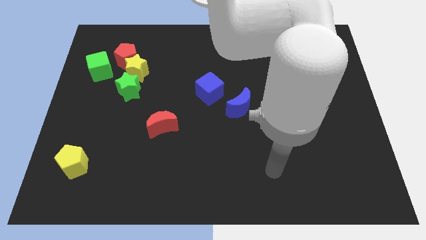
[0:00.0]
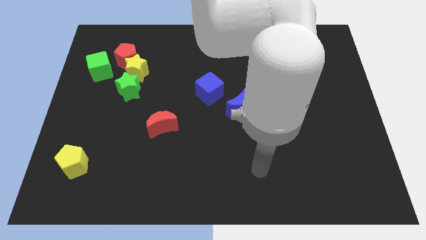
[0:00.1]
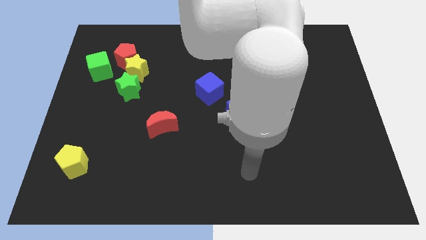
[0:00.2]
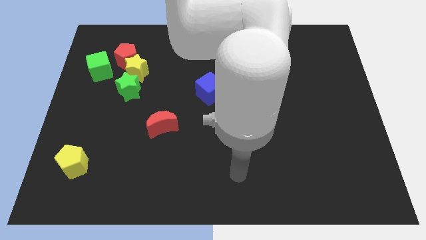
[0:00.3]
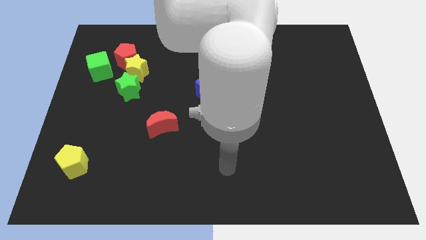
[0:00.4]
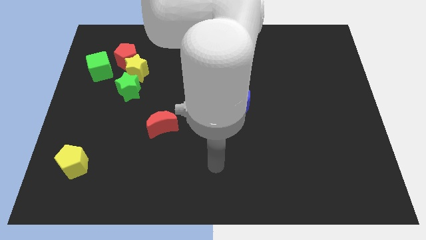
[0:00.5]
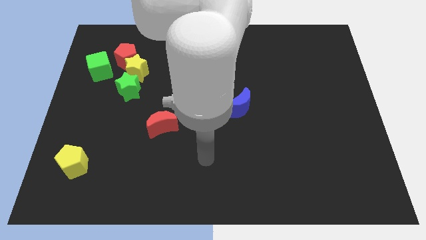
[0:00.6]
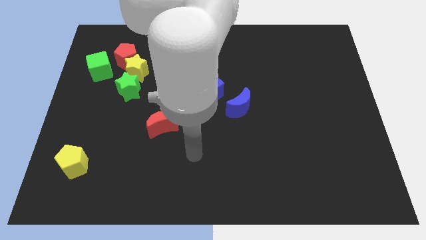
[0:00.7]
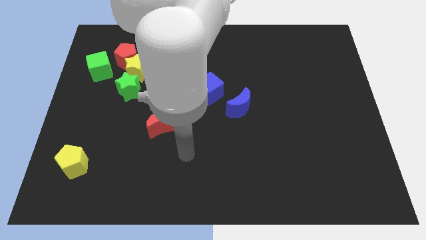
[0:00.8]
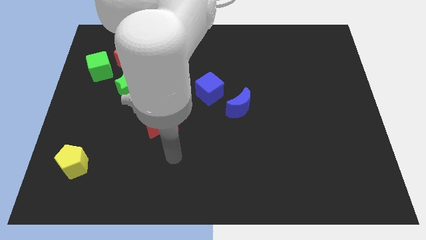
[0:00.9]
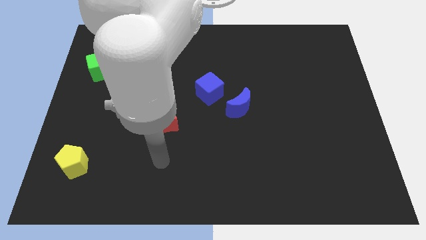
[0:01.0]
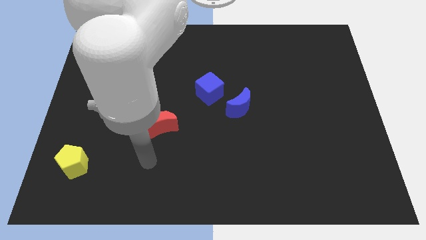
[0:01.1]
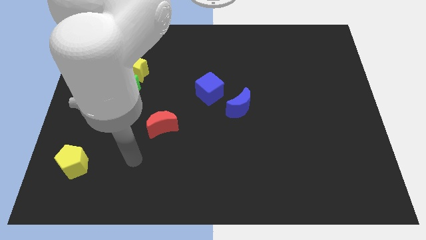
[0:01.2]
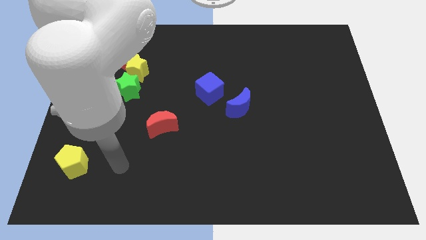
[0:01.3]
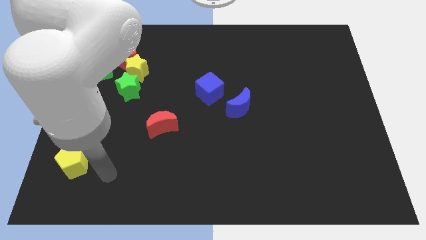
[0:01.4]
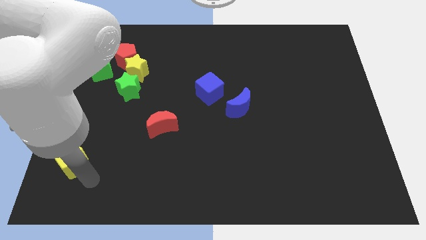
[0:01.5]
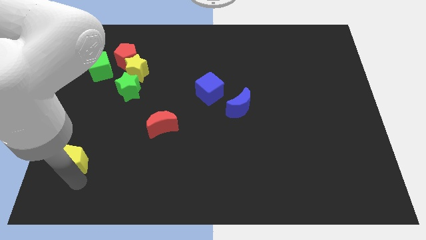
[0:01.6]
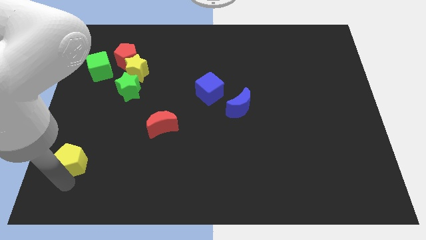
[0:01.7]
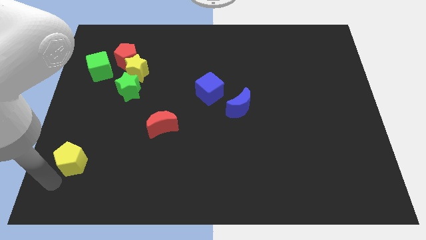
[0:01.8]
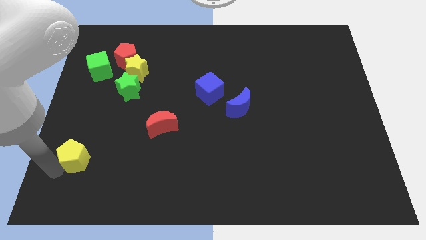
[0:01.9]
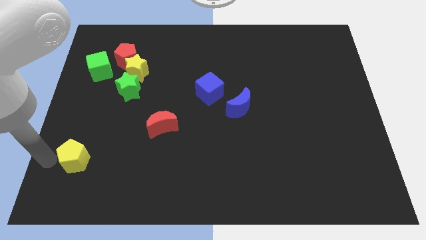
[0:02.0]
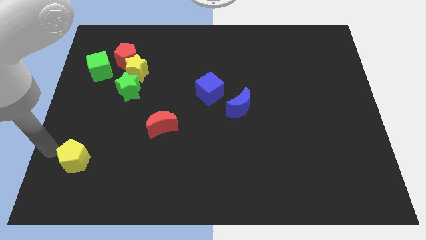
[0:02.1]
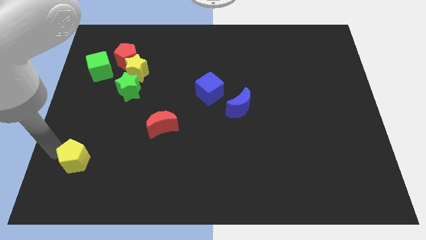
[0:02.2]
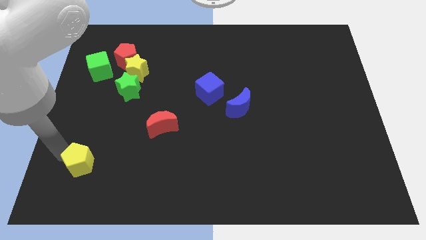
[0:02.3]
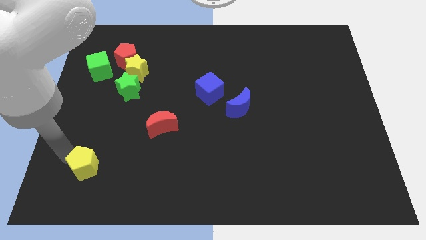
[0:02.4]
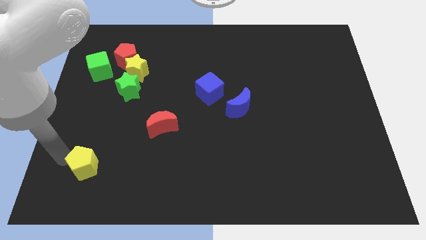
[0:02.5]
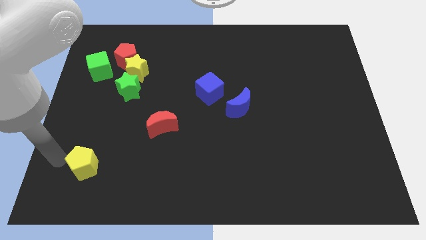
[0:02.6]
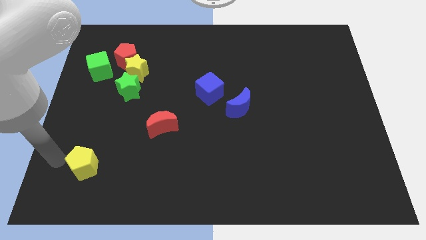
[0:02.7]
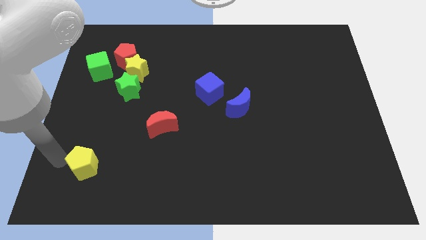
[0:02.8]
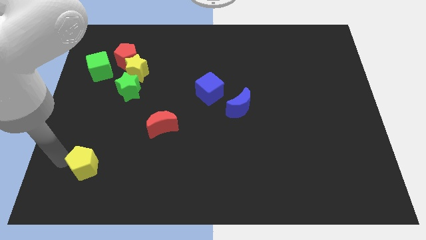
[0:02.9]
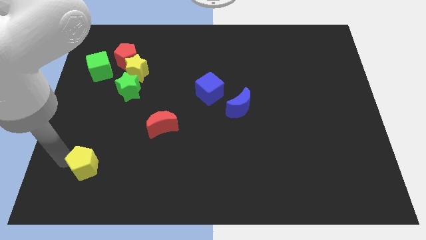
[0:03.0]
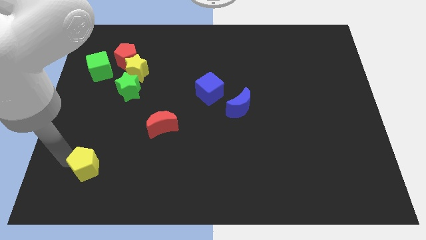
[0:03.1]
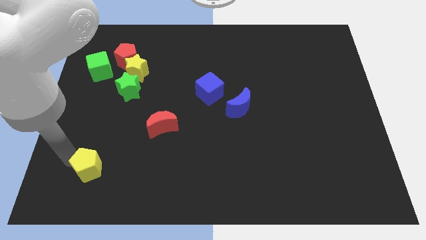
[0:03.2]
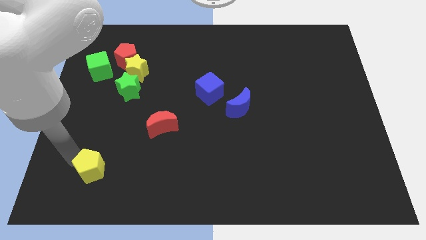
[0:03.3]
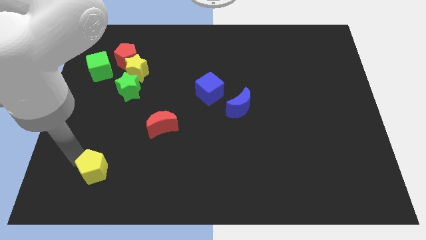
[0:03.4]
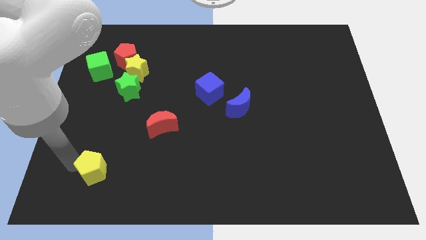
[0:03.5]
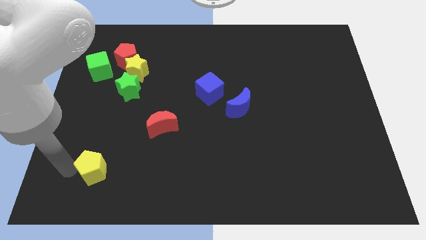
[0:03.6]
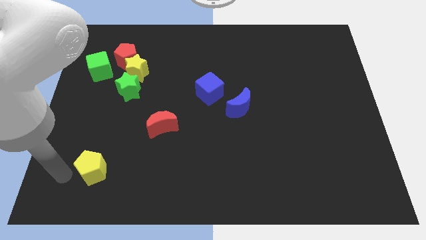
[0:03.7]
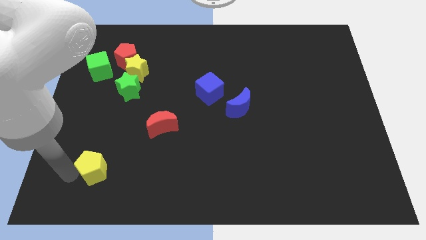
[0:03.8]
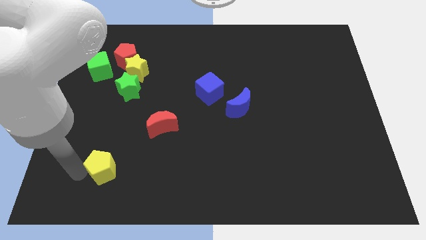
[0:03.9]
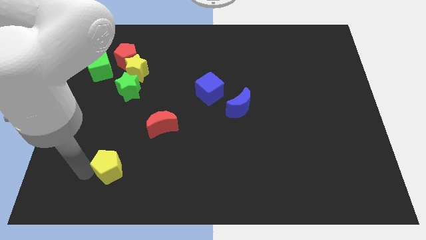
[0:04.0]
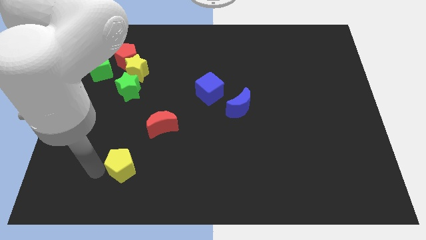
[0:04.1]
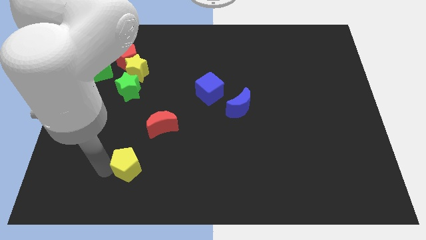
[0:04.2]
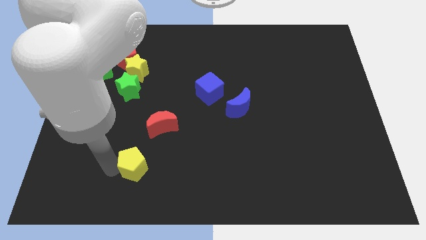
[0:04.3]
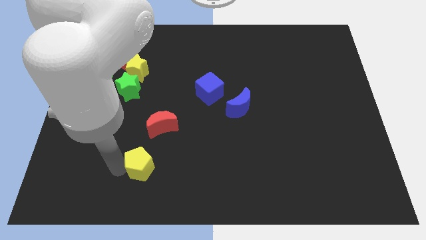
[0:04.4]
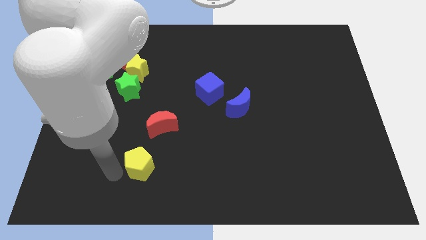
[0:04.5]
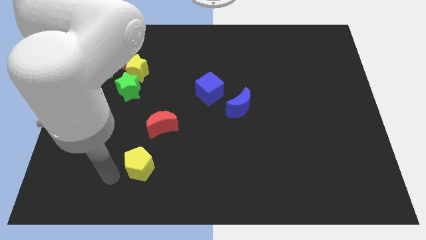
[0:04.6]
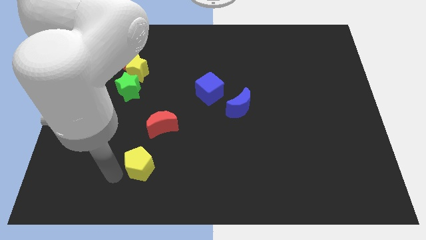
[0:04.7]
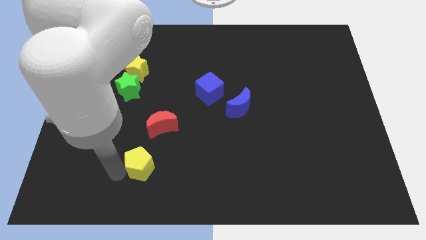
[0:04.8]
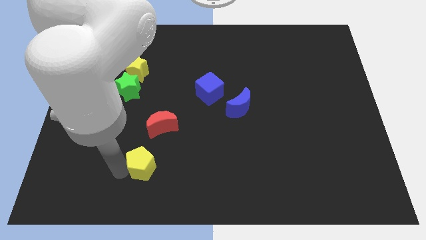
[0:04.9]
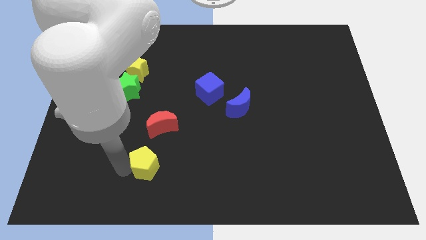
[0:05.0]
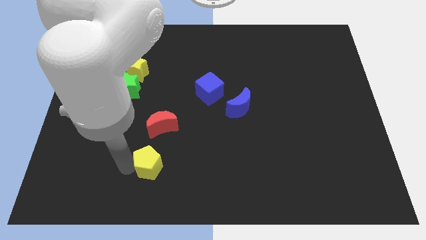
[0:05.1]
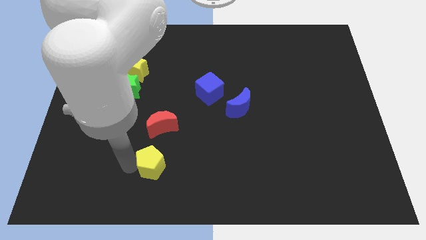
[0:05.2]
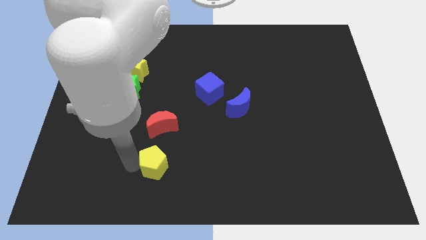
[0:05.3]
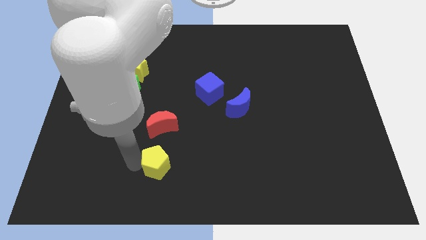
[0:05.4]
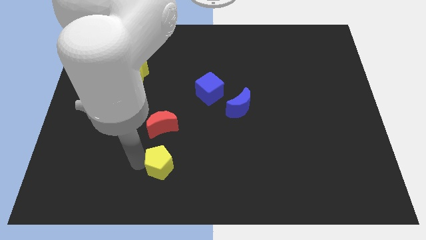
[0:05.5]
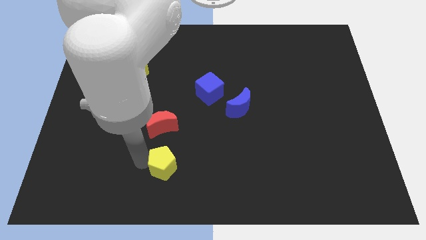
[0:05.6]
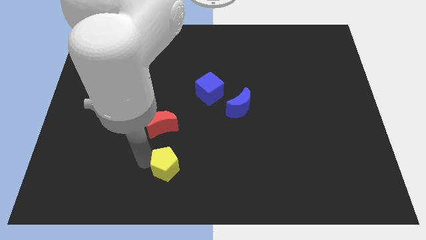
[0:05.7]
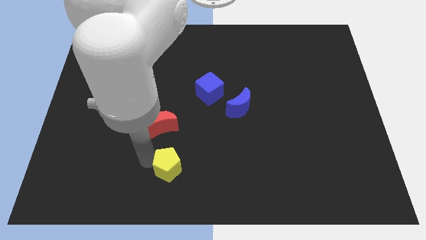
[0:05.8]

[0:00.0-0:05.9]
push the yellow pentagon to the right

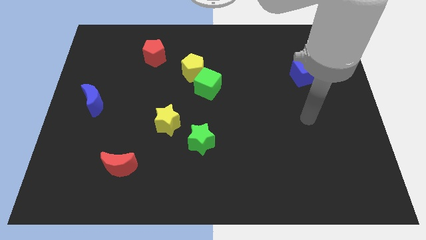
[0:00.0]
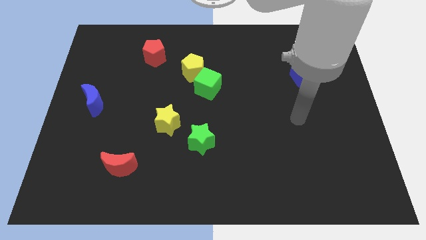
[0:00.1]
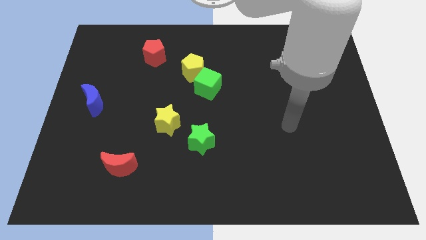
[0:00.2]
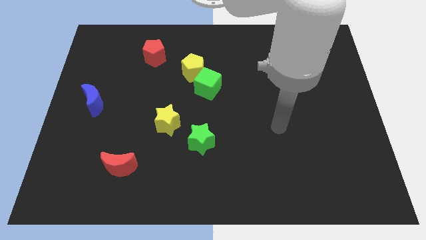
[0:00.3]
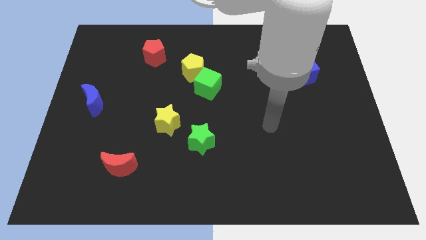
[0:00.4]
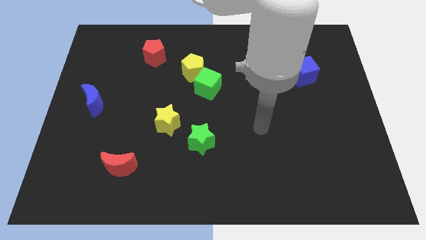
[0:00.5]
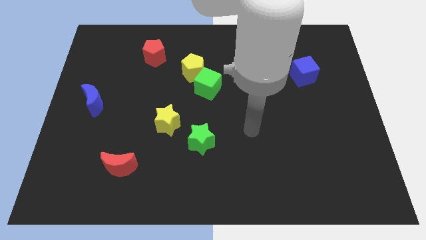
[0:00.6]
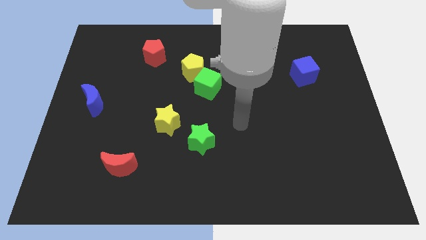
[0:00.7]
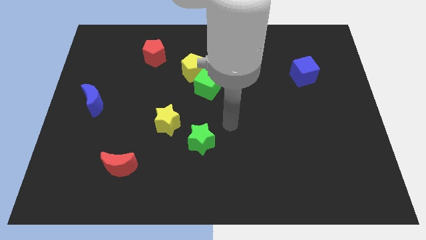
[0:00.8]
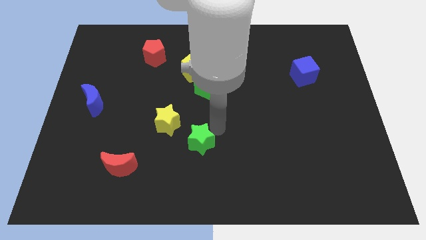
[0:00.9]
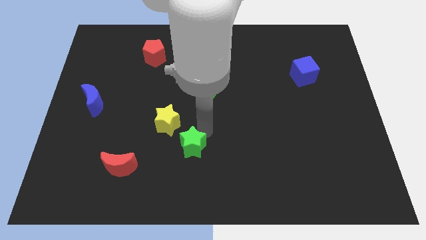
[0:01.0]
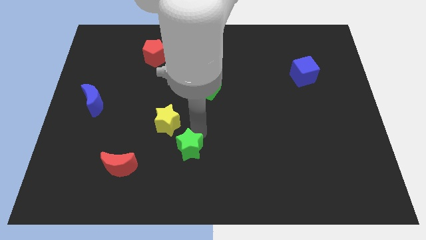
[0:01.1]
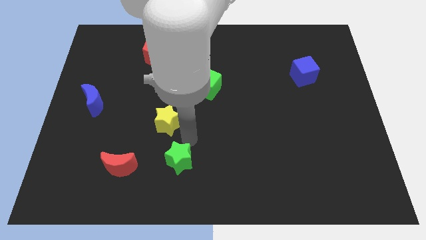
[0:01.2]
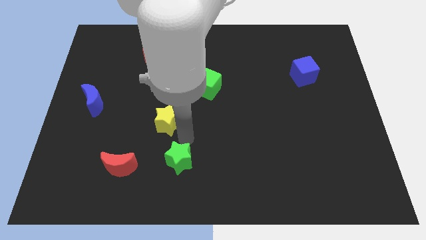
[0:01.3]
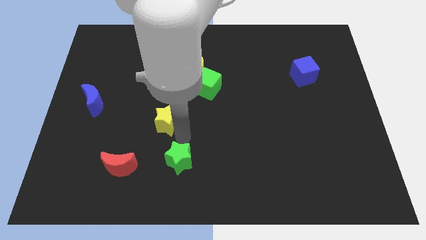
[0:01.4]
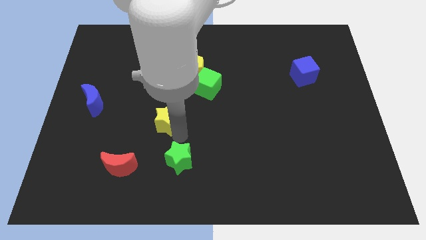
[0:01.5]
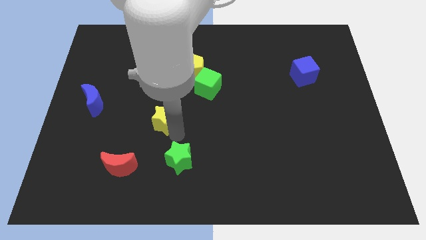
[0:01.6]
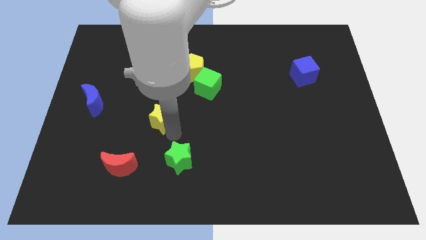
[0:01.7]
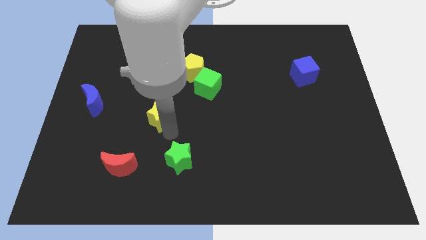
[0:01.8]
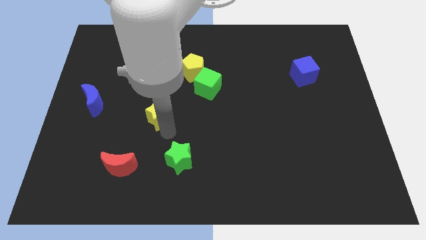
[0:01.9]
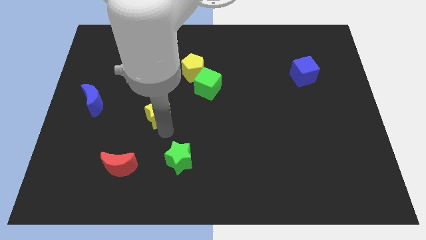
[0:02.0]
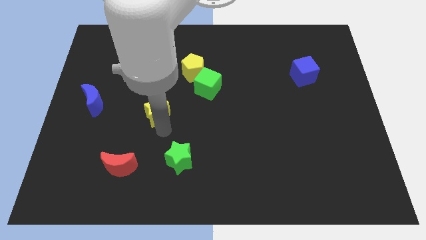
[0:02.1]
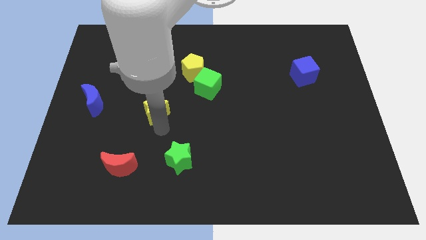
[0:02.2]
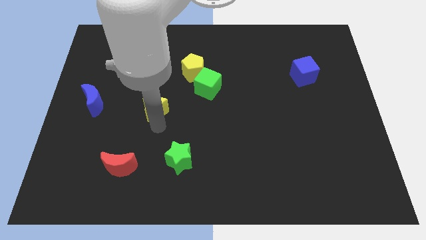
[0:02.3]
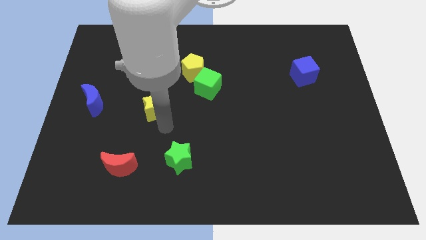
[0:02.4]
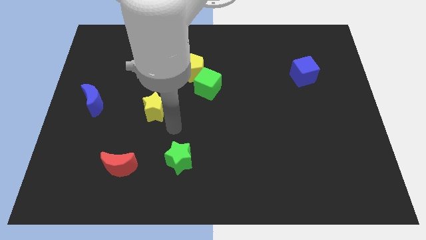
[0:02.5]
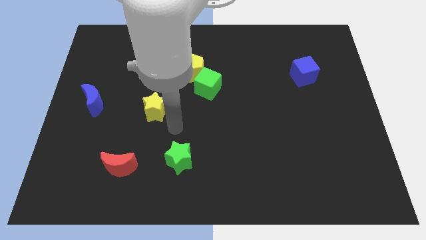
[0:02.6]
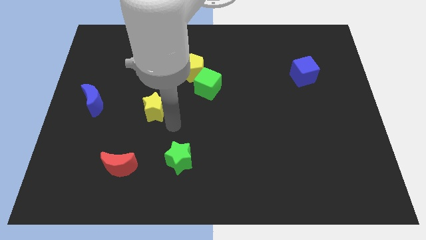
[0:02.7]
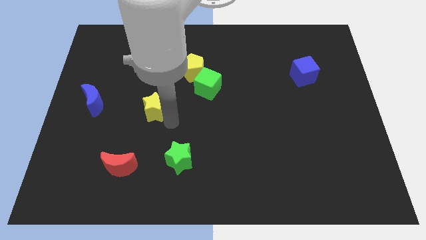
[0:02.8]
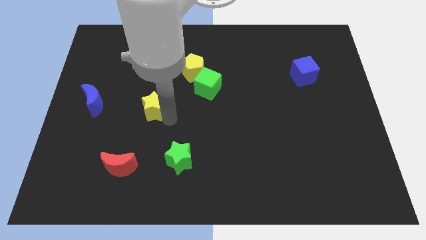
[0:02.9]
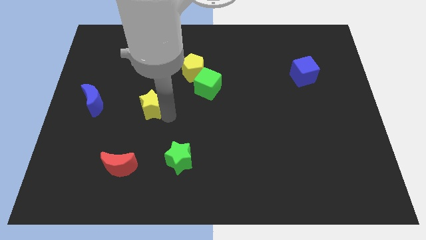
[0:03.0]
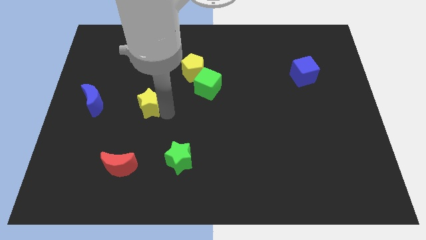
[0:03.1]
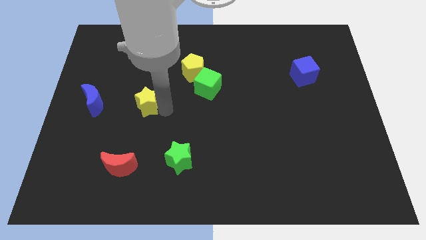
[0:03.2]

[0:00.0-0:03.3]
slide the yellow star somewhat upwards and left diagonally
